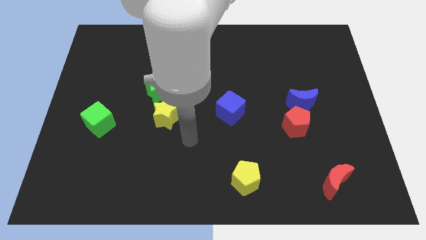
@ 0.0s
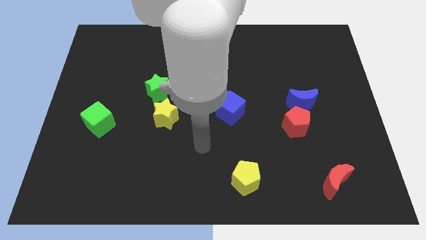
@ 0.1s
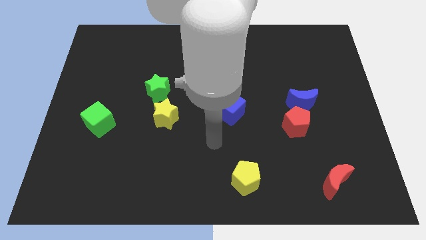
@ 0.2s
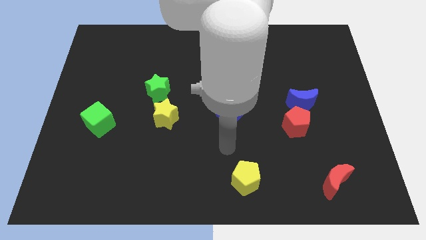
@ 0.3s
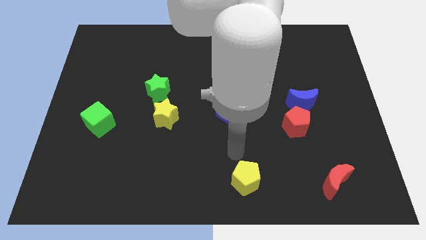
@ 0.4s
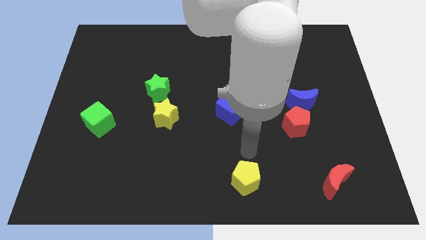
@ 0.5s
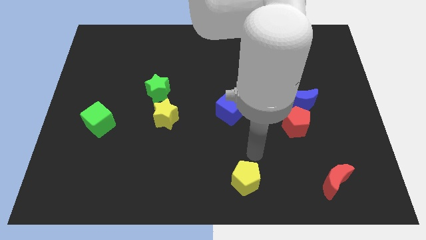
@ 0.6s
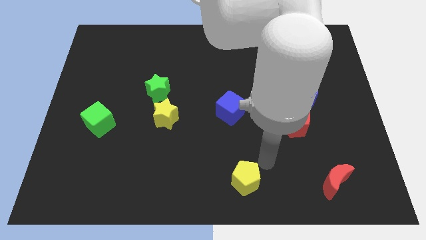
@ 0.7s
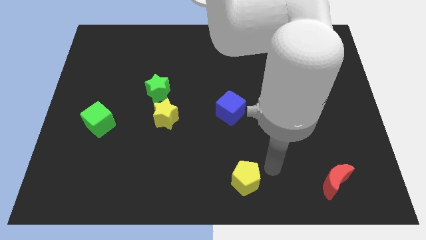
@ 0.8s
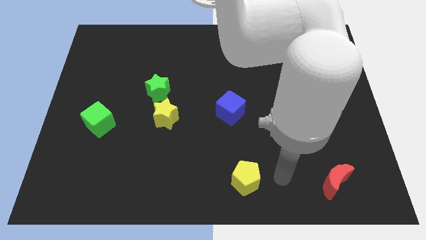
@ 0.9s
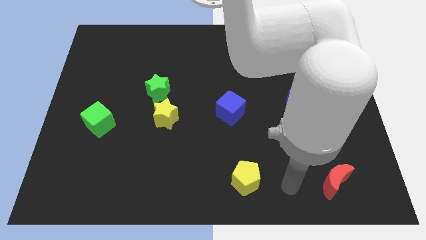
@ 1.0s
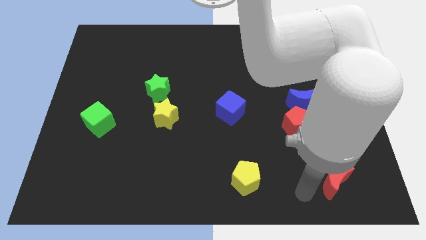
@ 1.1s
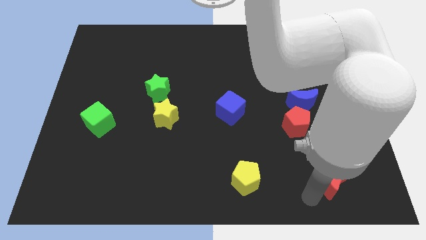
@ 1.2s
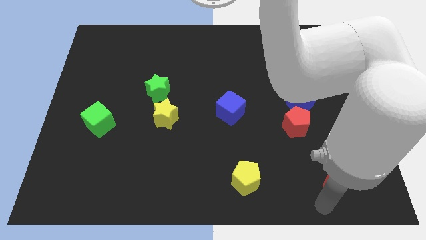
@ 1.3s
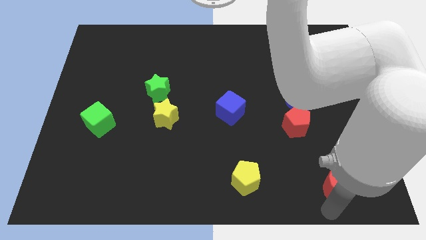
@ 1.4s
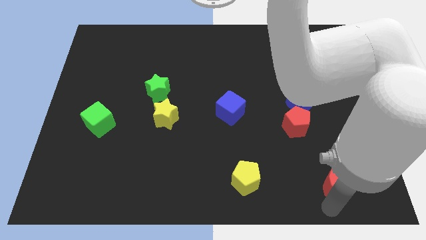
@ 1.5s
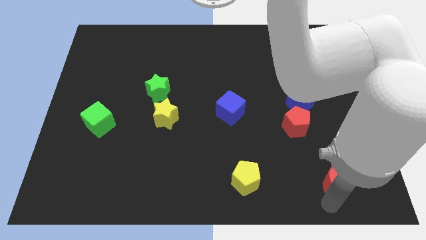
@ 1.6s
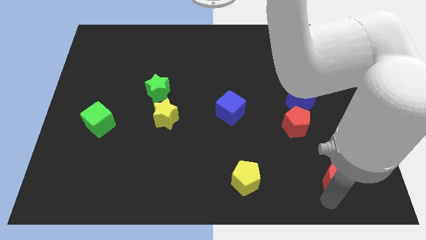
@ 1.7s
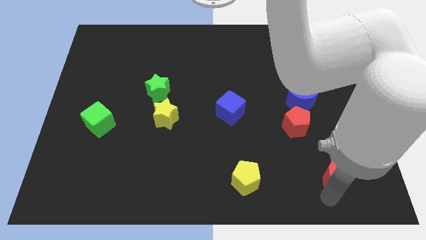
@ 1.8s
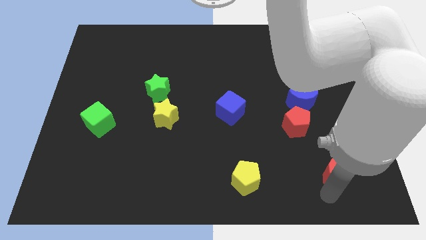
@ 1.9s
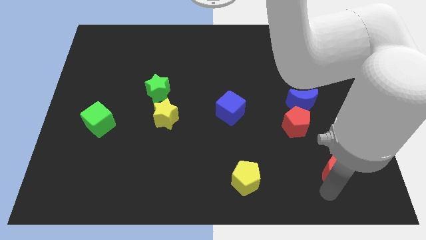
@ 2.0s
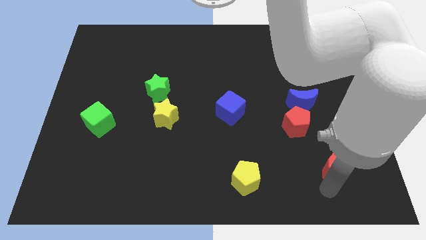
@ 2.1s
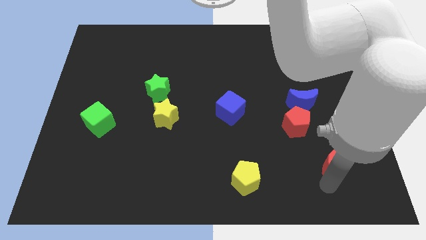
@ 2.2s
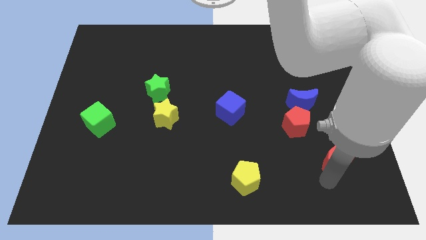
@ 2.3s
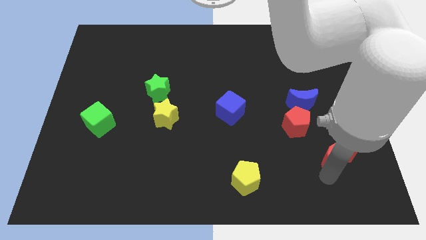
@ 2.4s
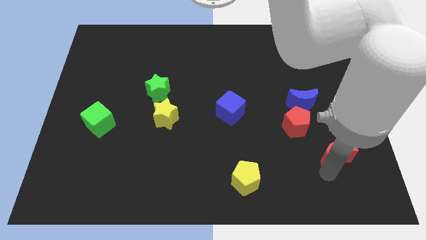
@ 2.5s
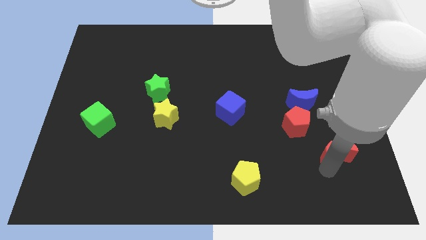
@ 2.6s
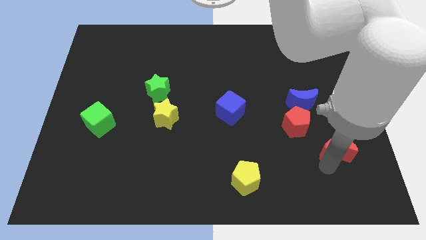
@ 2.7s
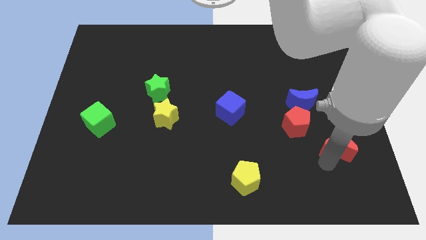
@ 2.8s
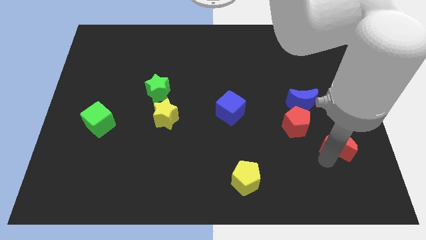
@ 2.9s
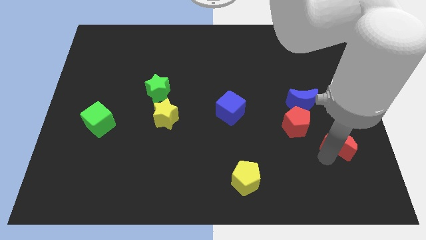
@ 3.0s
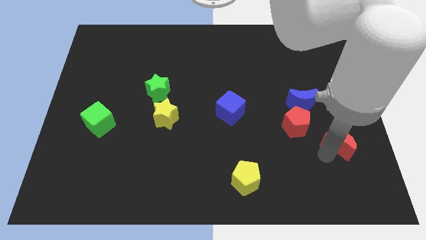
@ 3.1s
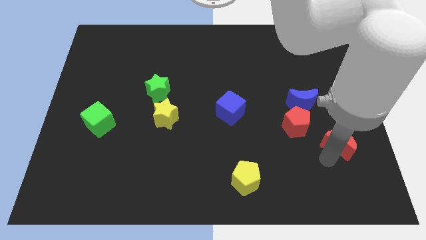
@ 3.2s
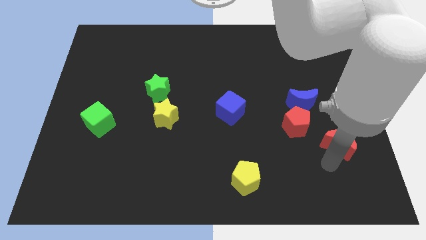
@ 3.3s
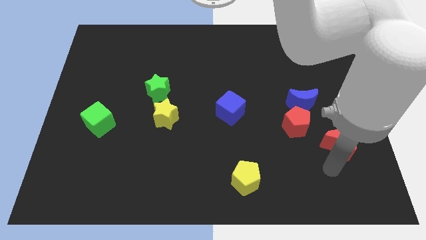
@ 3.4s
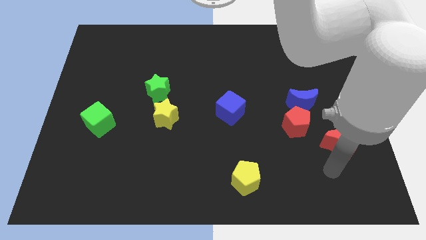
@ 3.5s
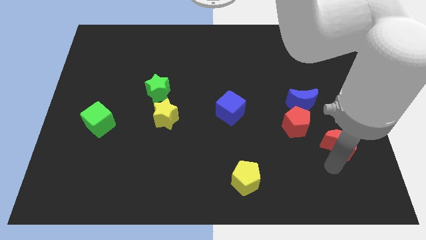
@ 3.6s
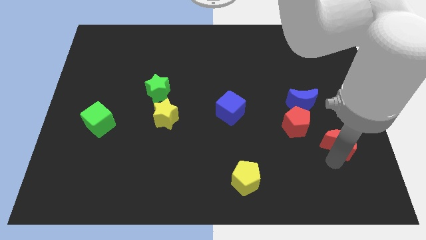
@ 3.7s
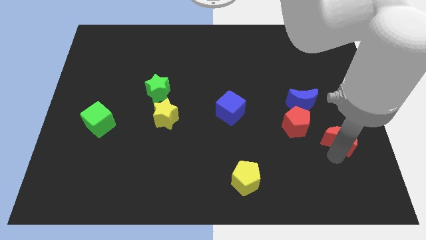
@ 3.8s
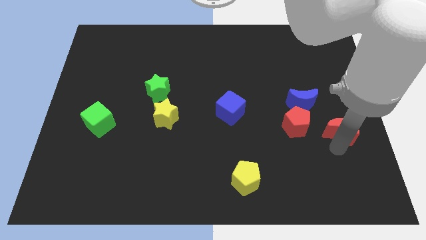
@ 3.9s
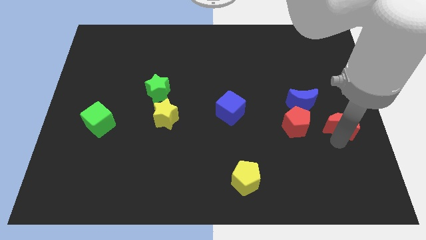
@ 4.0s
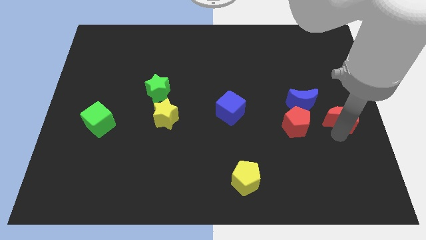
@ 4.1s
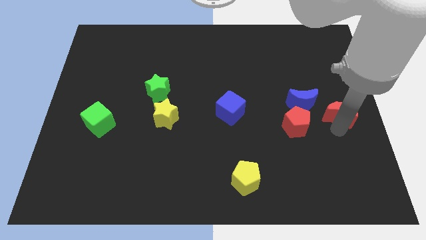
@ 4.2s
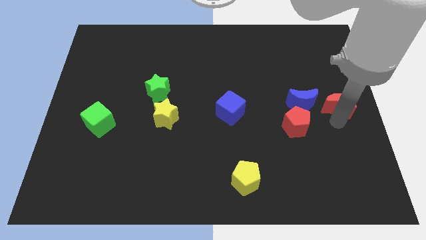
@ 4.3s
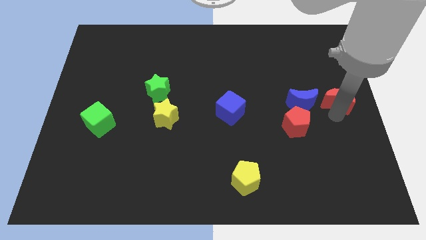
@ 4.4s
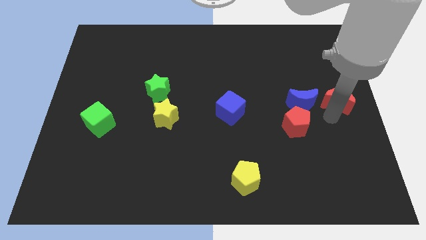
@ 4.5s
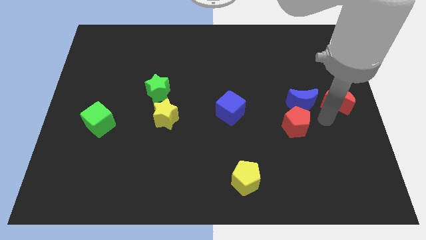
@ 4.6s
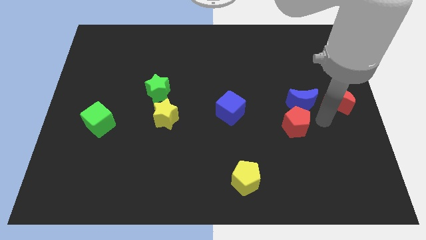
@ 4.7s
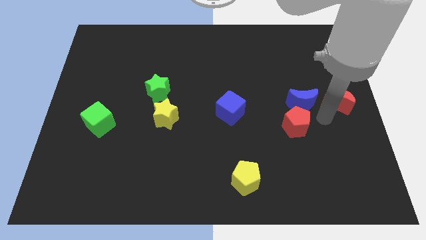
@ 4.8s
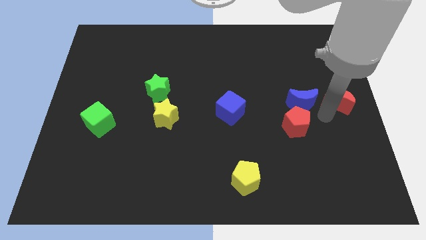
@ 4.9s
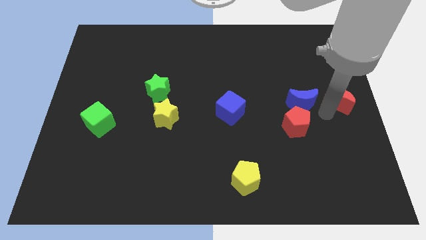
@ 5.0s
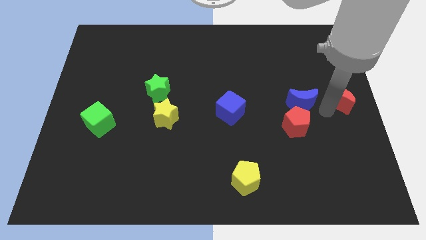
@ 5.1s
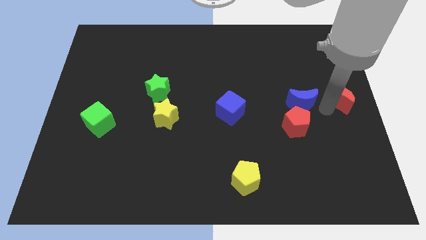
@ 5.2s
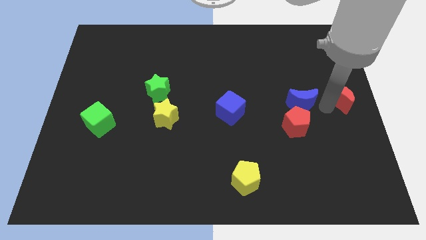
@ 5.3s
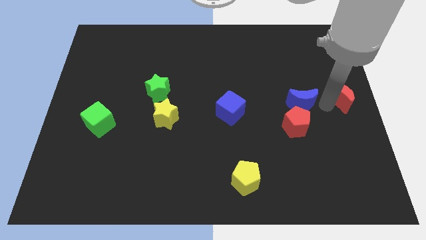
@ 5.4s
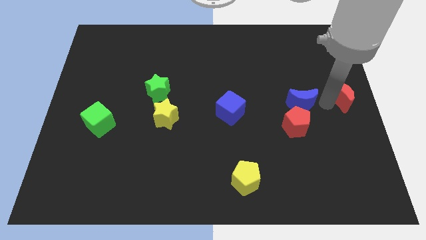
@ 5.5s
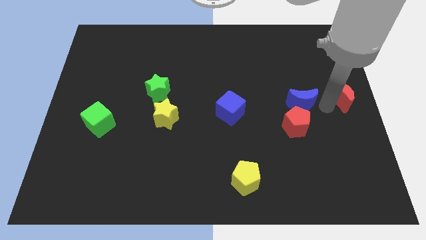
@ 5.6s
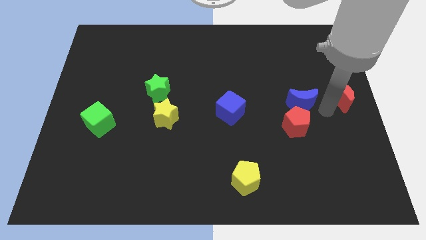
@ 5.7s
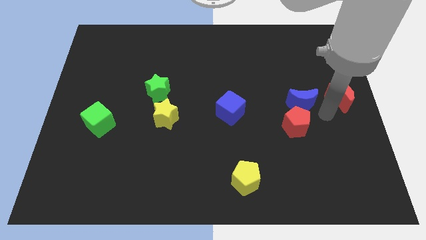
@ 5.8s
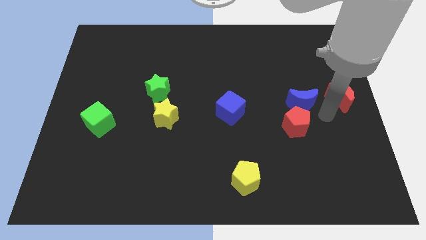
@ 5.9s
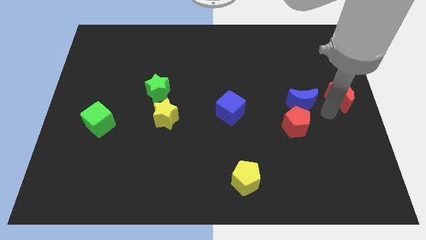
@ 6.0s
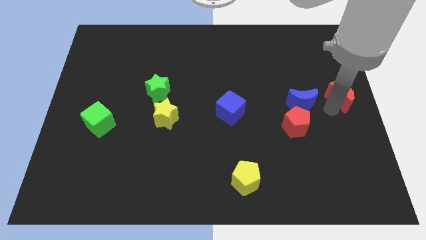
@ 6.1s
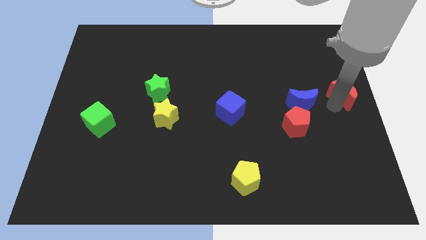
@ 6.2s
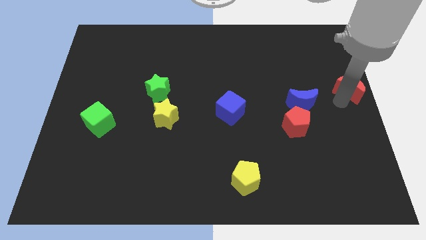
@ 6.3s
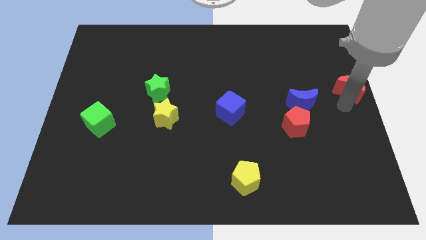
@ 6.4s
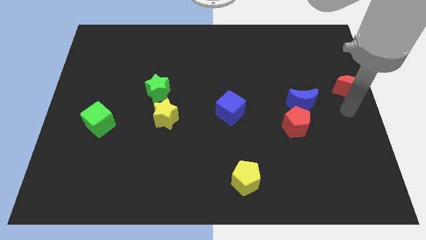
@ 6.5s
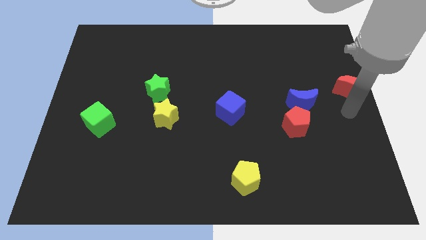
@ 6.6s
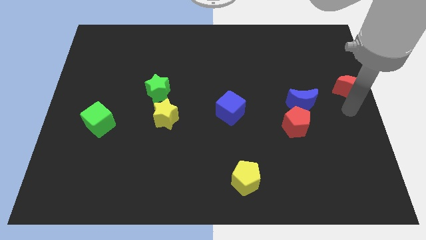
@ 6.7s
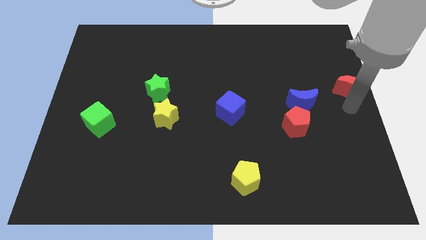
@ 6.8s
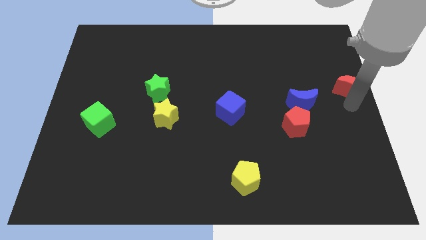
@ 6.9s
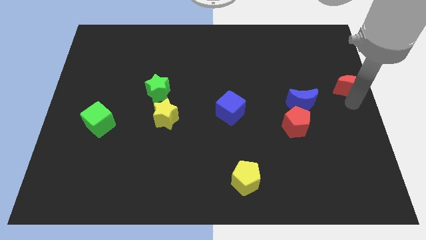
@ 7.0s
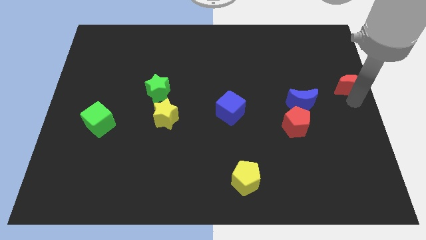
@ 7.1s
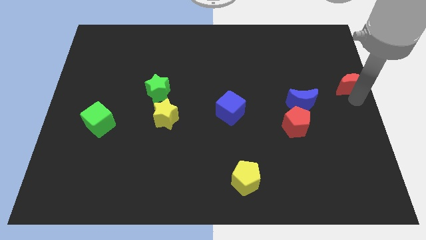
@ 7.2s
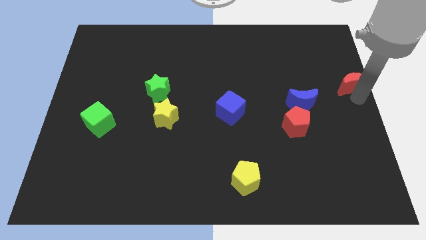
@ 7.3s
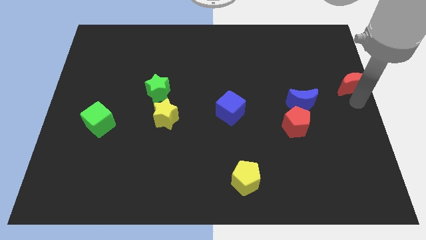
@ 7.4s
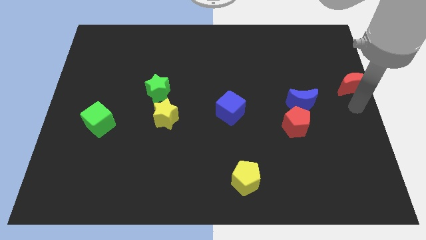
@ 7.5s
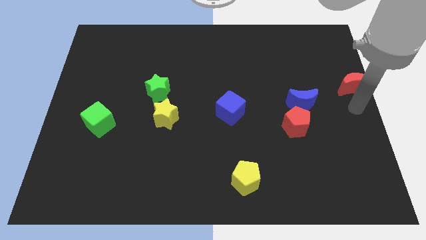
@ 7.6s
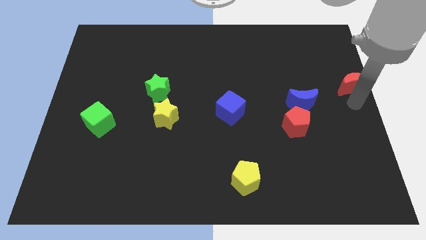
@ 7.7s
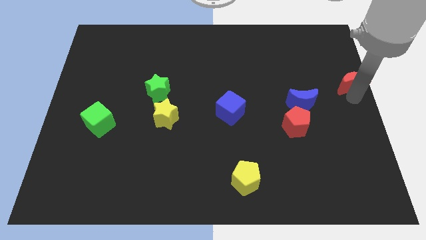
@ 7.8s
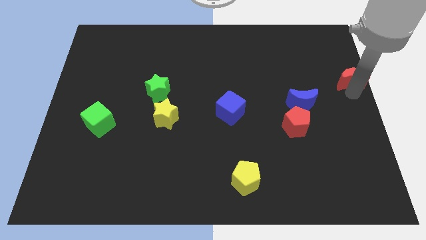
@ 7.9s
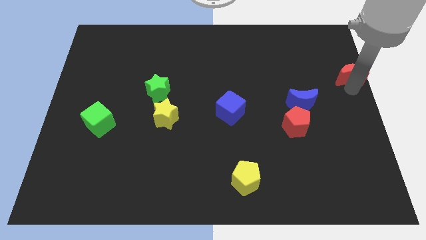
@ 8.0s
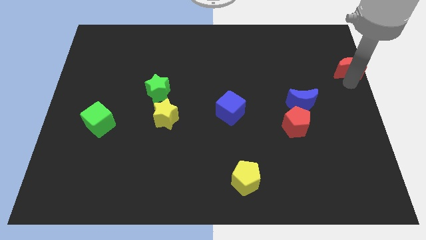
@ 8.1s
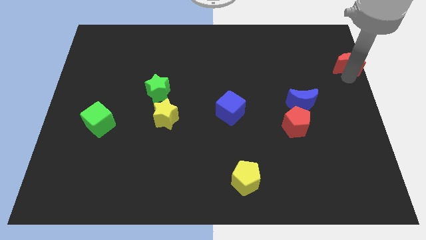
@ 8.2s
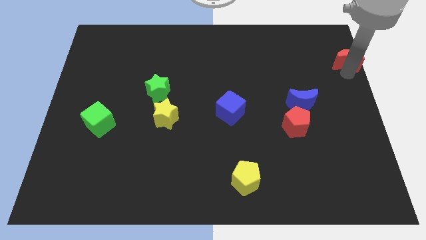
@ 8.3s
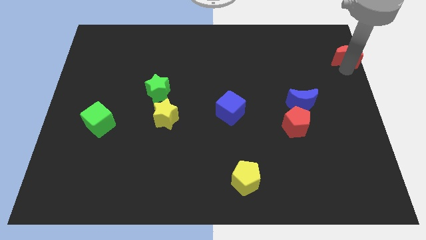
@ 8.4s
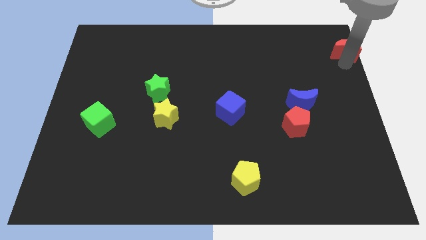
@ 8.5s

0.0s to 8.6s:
put the red moon to the top right corner
